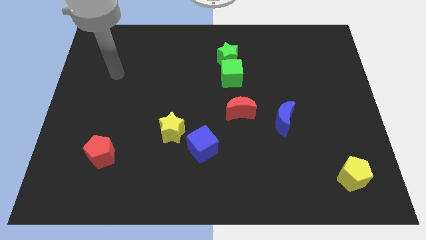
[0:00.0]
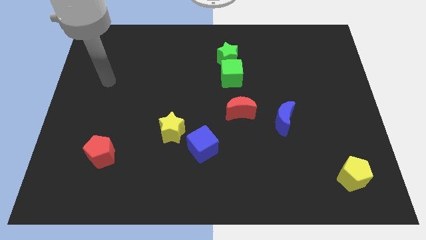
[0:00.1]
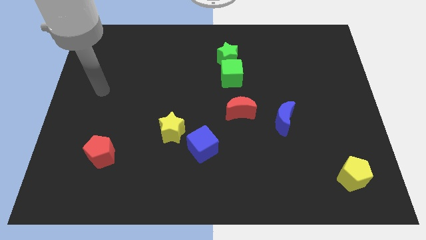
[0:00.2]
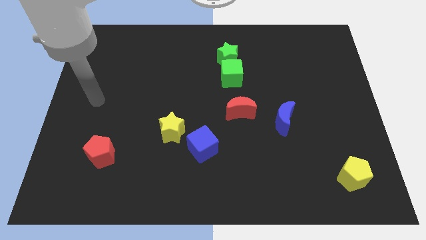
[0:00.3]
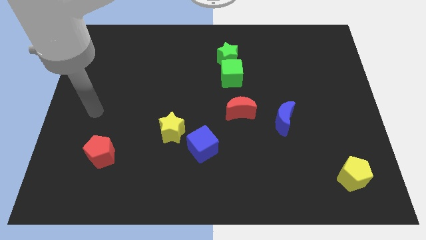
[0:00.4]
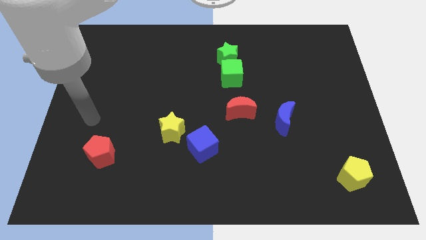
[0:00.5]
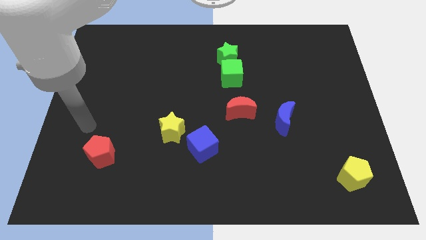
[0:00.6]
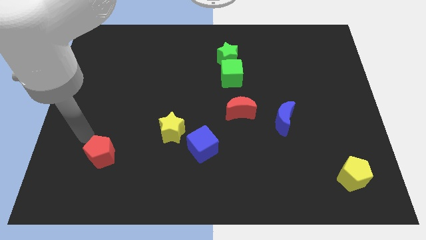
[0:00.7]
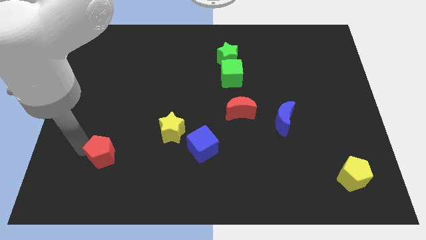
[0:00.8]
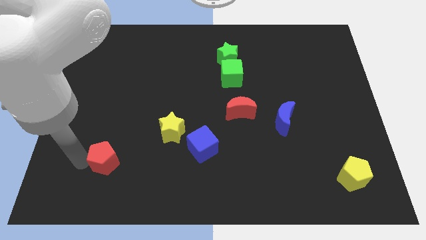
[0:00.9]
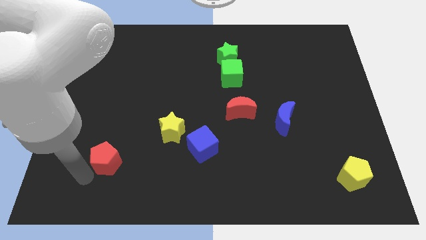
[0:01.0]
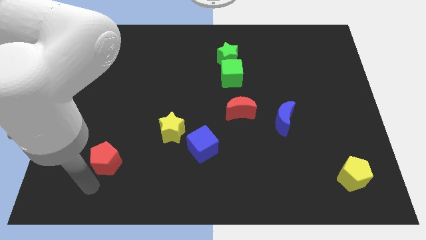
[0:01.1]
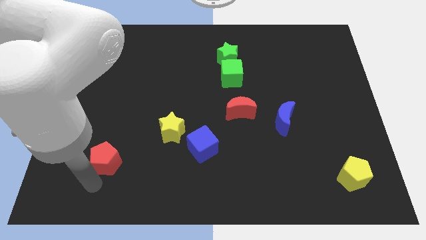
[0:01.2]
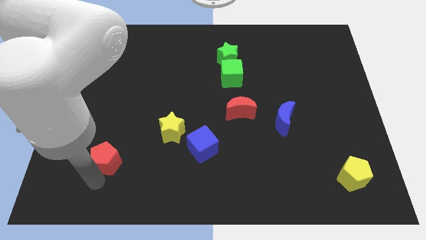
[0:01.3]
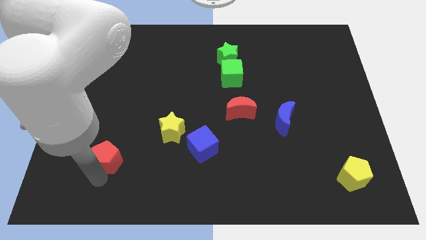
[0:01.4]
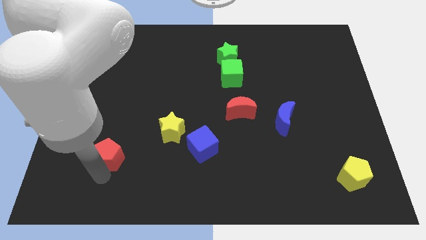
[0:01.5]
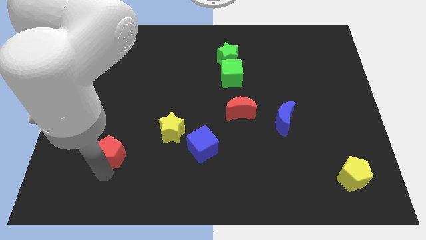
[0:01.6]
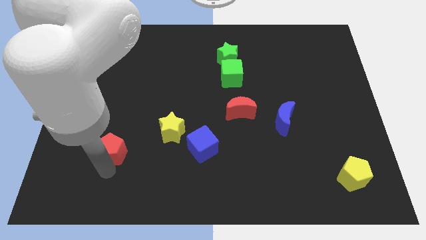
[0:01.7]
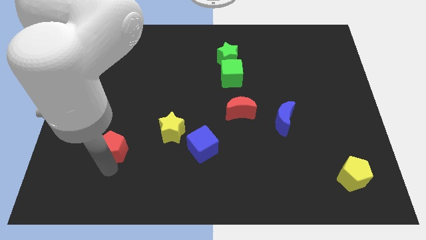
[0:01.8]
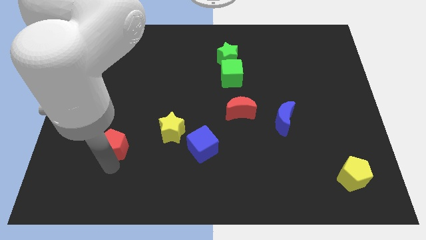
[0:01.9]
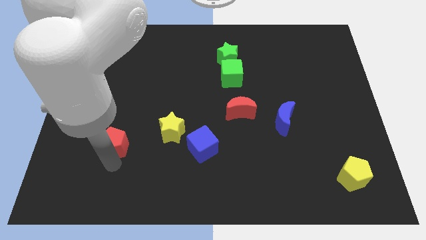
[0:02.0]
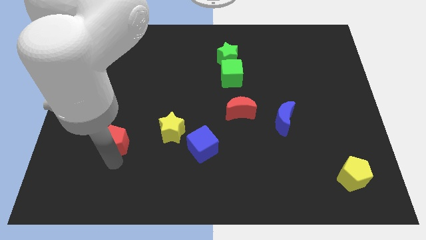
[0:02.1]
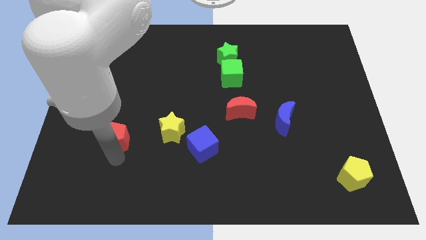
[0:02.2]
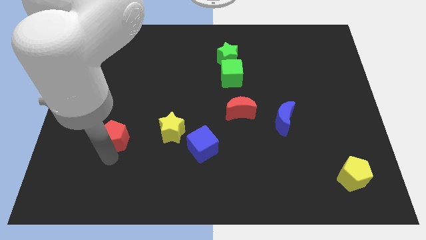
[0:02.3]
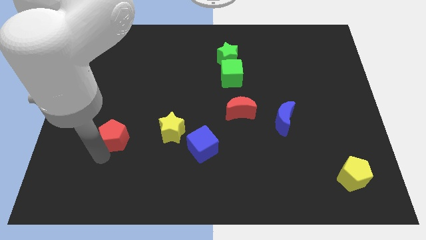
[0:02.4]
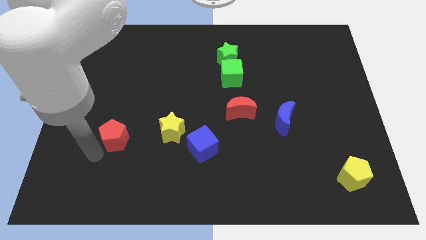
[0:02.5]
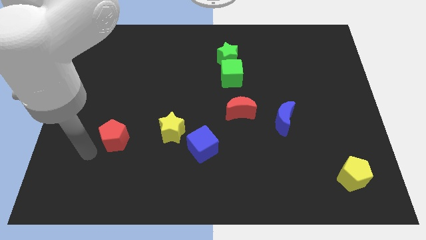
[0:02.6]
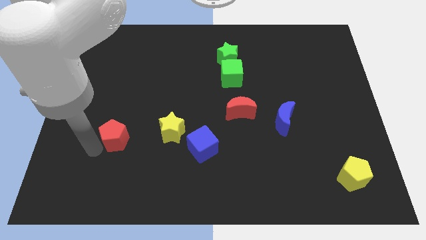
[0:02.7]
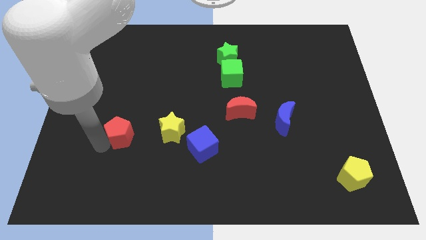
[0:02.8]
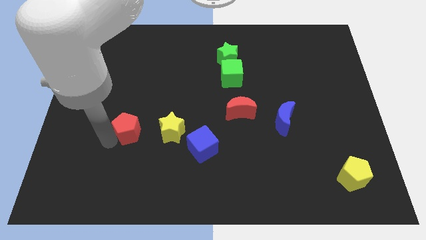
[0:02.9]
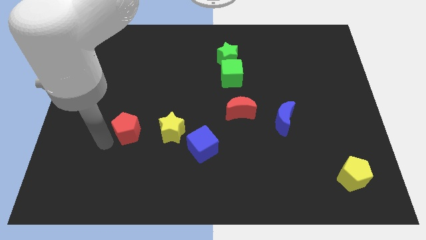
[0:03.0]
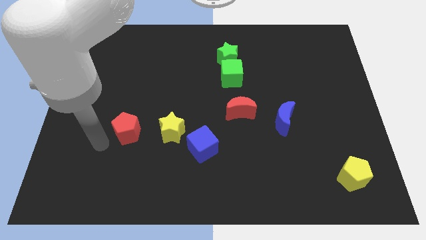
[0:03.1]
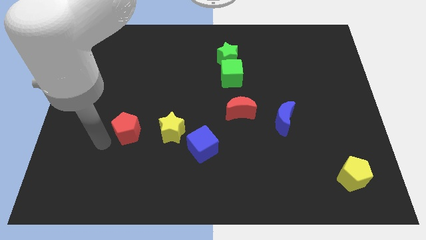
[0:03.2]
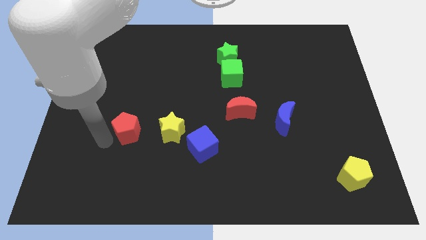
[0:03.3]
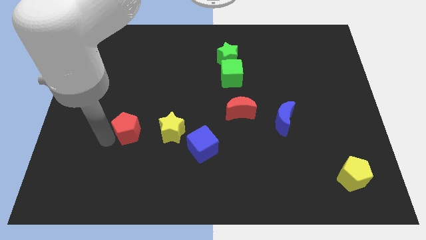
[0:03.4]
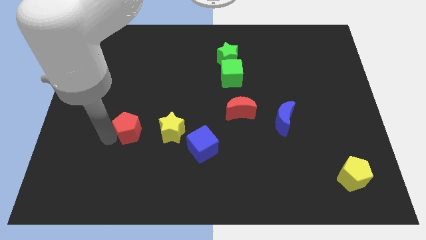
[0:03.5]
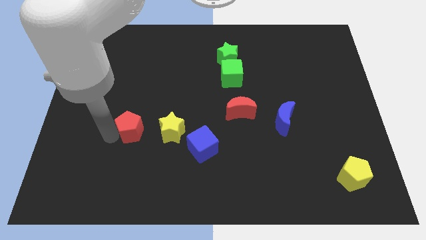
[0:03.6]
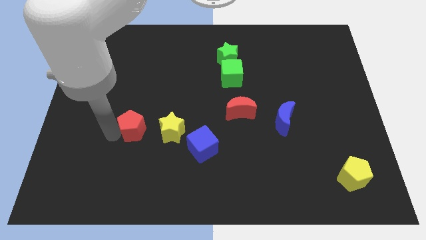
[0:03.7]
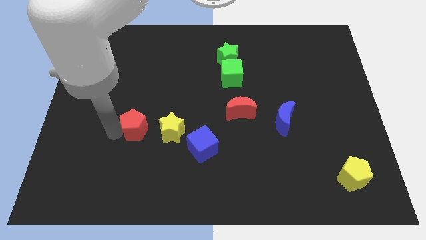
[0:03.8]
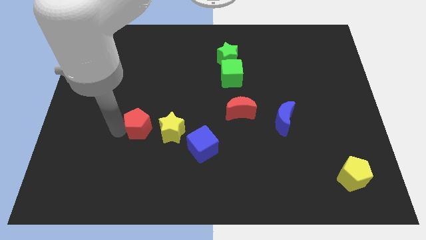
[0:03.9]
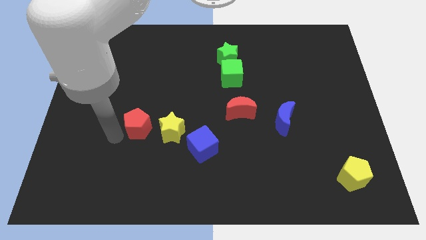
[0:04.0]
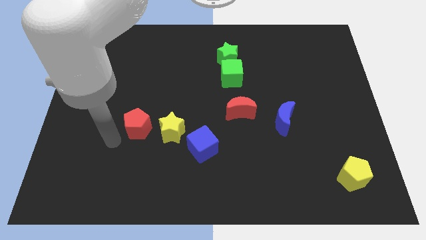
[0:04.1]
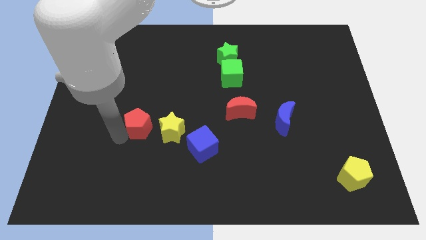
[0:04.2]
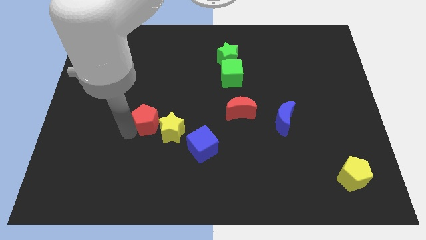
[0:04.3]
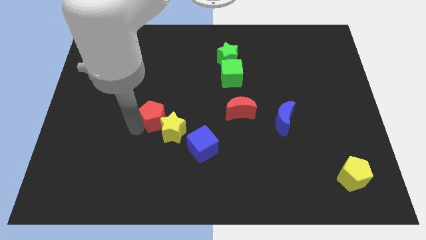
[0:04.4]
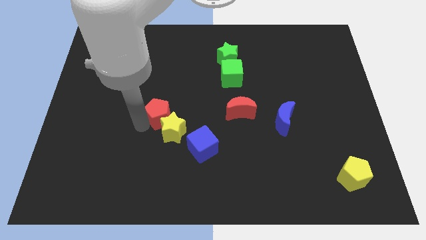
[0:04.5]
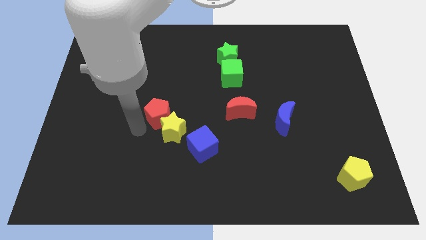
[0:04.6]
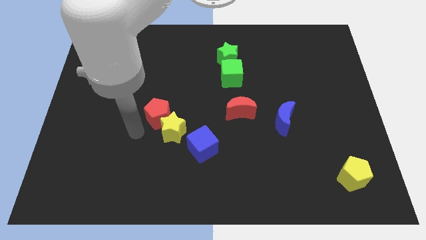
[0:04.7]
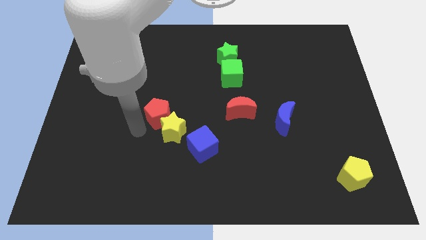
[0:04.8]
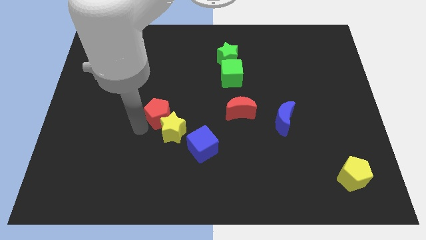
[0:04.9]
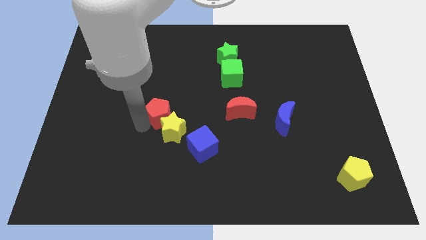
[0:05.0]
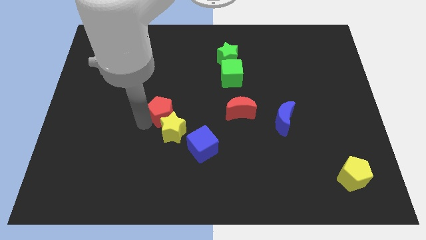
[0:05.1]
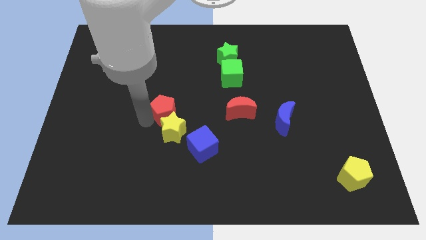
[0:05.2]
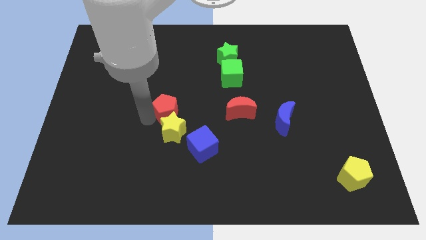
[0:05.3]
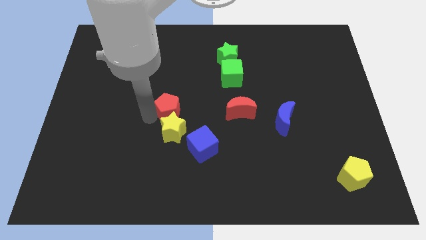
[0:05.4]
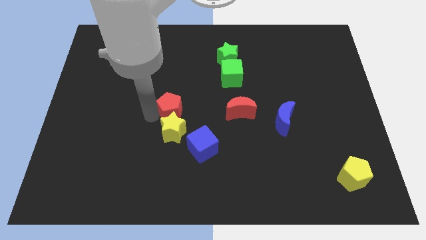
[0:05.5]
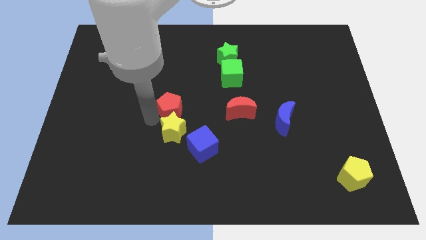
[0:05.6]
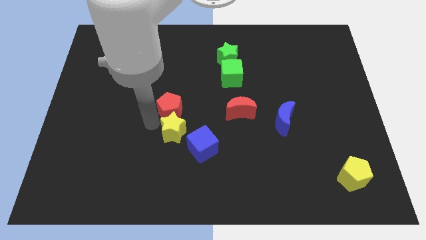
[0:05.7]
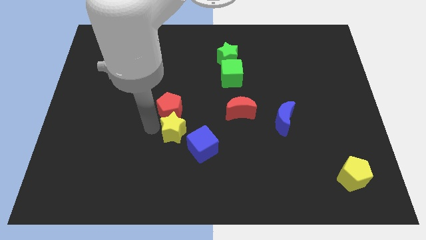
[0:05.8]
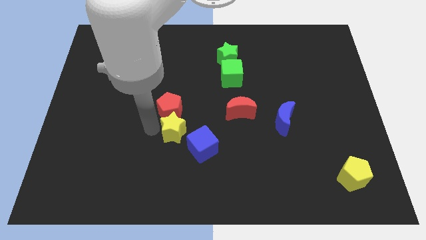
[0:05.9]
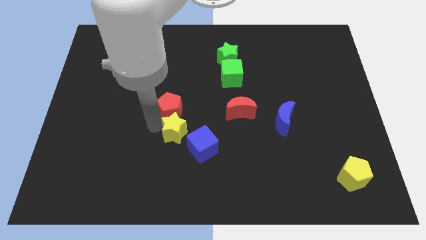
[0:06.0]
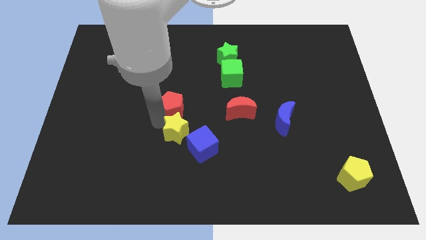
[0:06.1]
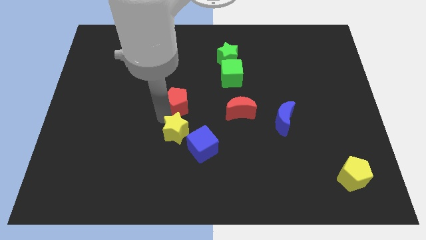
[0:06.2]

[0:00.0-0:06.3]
move the red pentagon upwards and then to the right

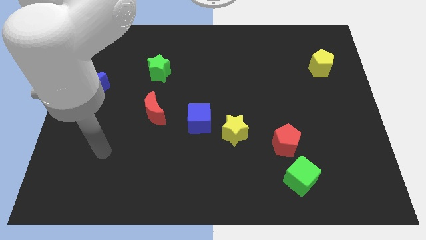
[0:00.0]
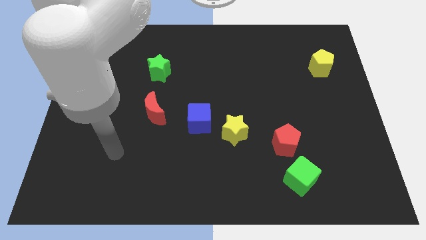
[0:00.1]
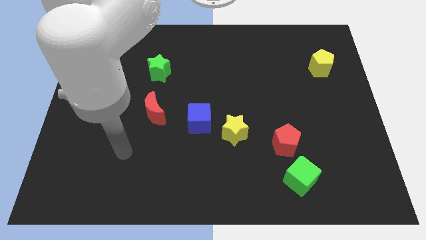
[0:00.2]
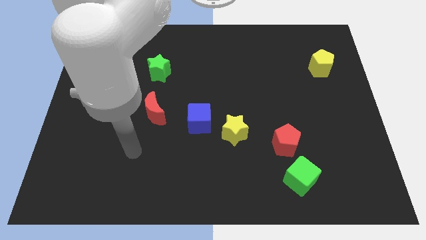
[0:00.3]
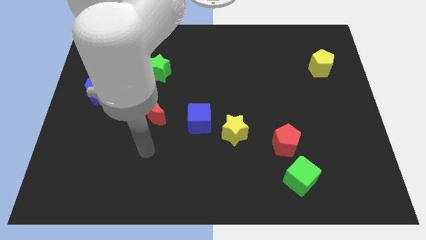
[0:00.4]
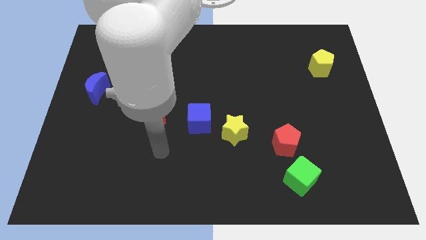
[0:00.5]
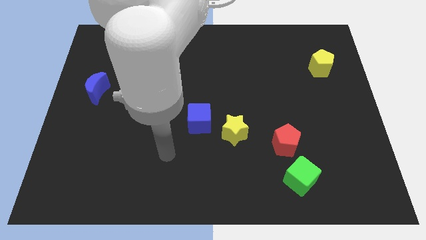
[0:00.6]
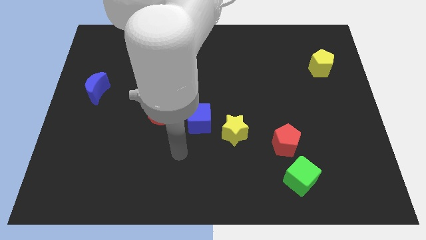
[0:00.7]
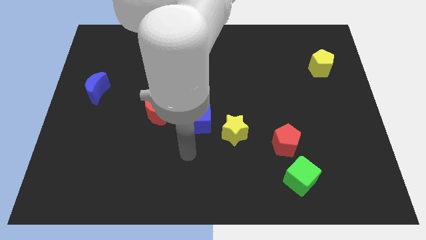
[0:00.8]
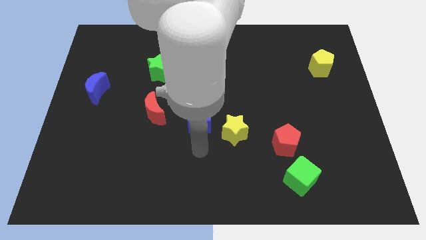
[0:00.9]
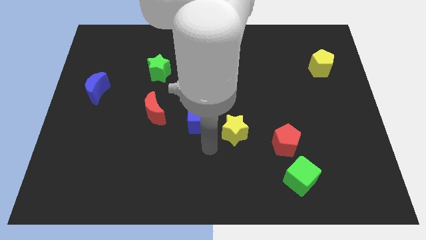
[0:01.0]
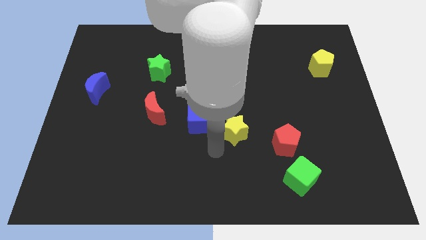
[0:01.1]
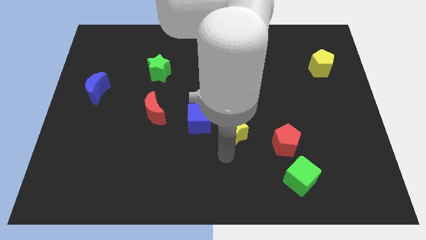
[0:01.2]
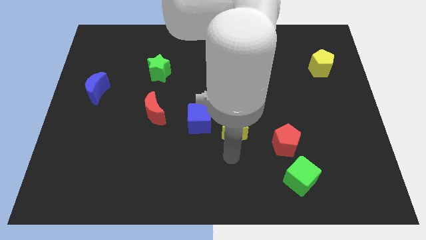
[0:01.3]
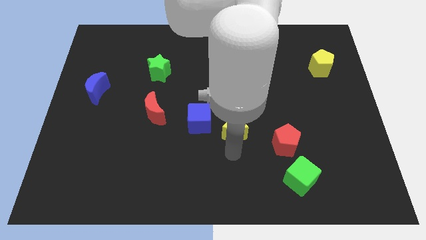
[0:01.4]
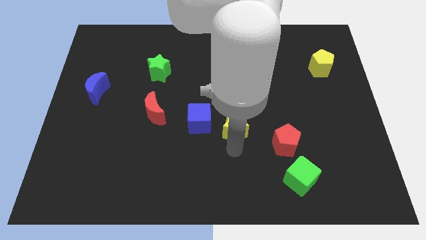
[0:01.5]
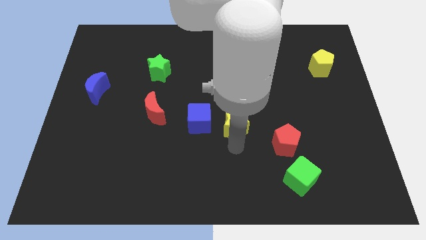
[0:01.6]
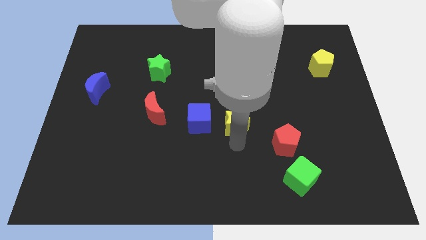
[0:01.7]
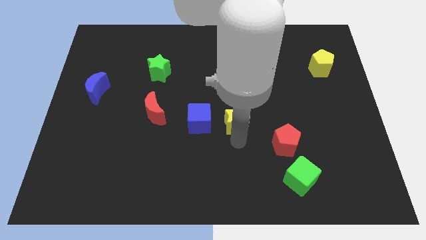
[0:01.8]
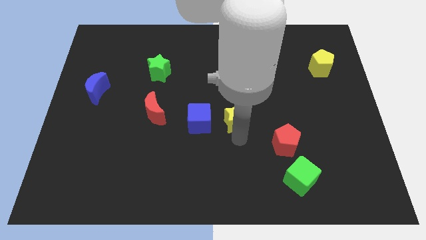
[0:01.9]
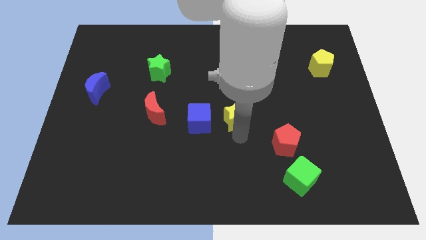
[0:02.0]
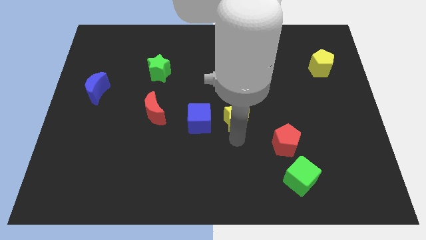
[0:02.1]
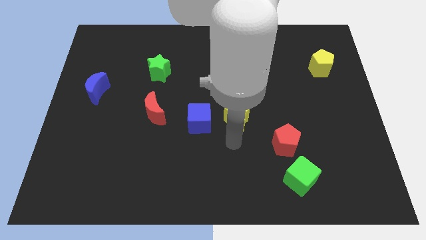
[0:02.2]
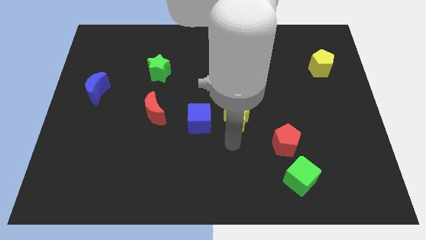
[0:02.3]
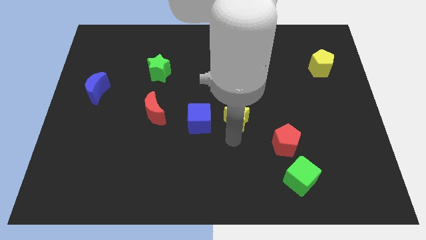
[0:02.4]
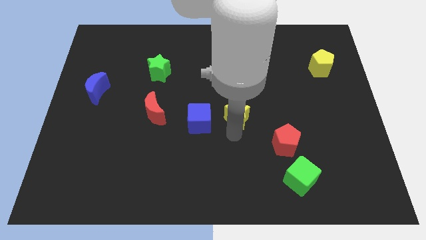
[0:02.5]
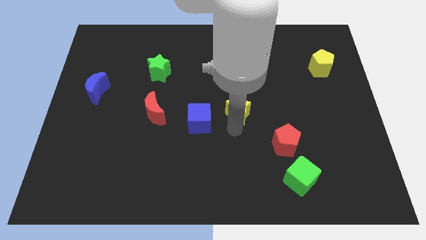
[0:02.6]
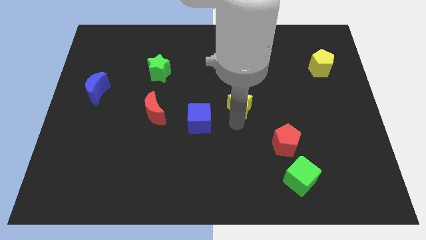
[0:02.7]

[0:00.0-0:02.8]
move the yellow star a little bit up
